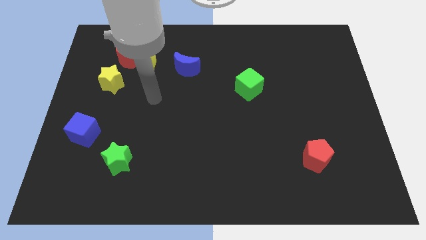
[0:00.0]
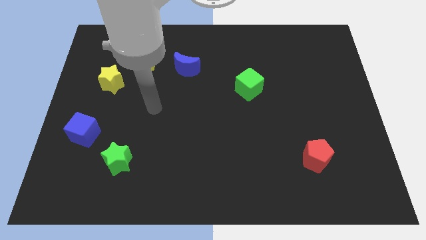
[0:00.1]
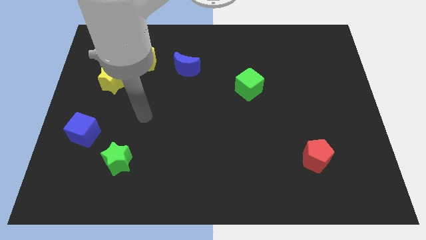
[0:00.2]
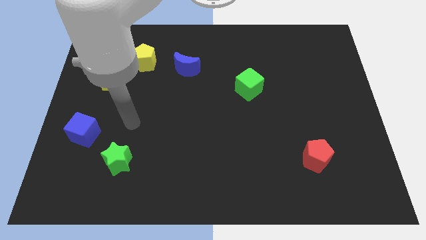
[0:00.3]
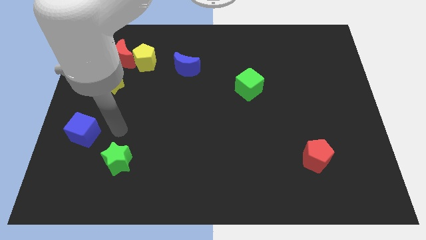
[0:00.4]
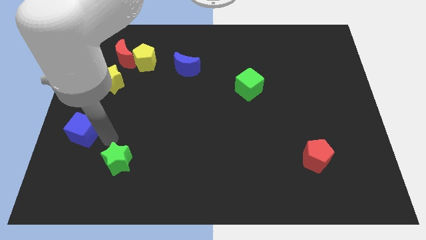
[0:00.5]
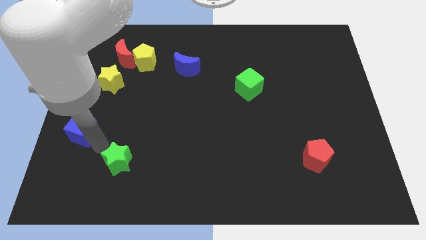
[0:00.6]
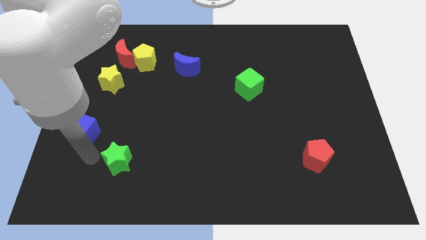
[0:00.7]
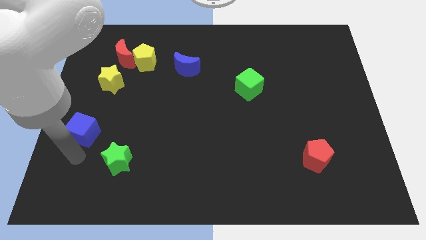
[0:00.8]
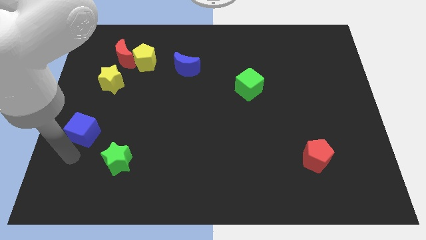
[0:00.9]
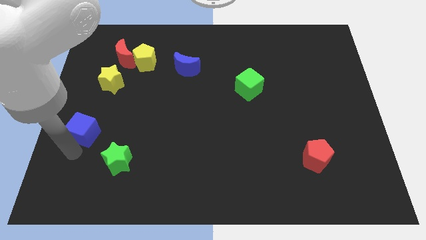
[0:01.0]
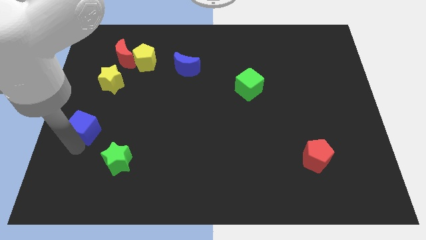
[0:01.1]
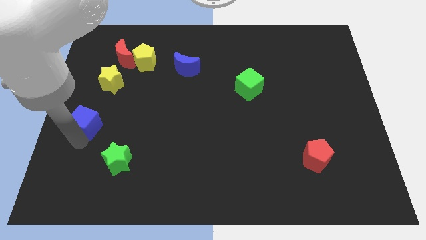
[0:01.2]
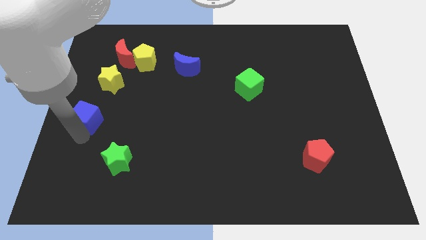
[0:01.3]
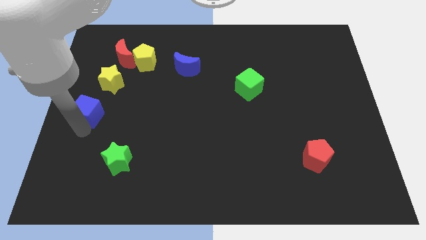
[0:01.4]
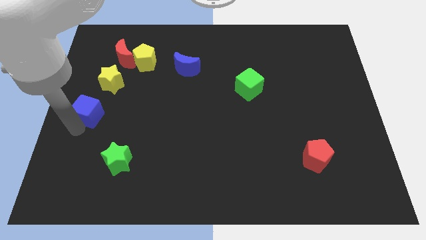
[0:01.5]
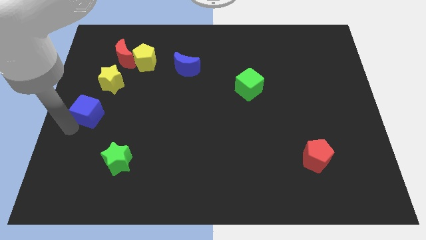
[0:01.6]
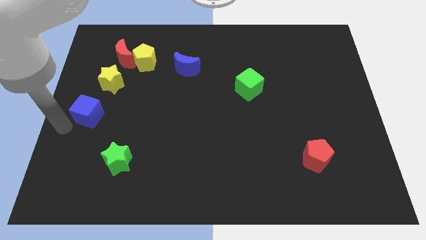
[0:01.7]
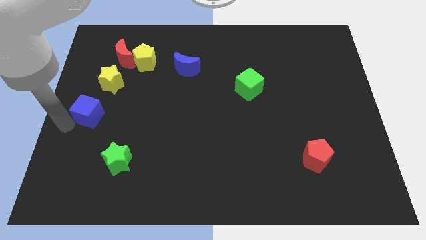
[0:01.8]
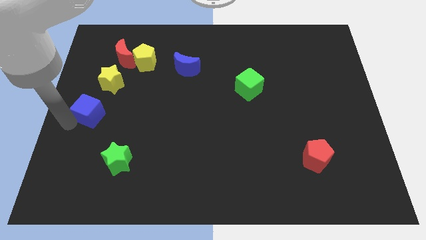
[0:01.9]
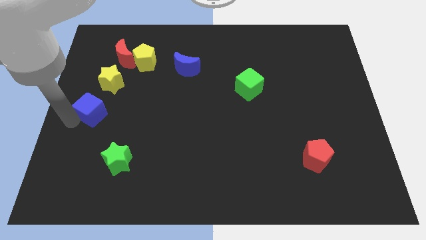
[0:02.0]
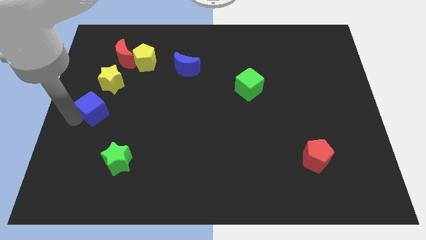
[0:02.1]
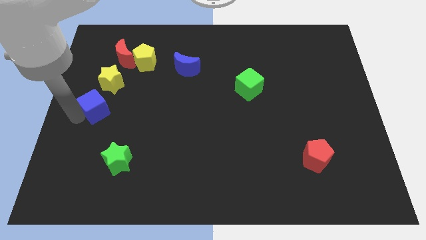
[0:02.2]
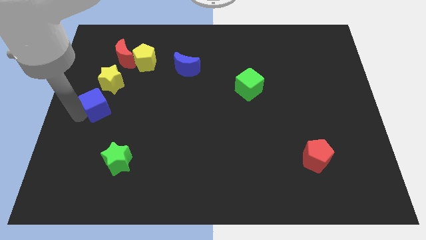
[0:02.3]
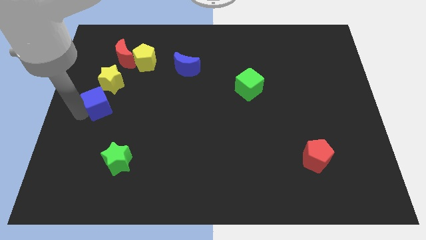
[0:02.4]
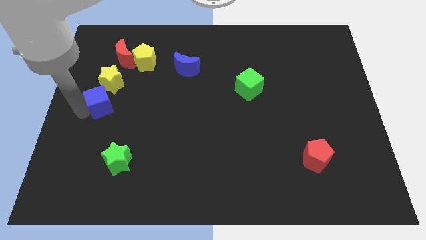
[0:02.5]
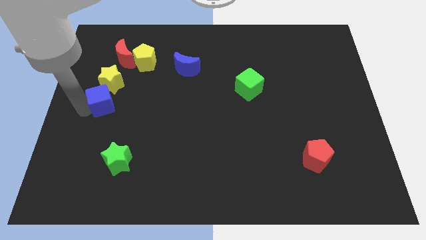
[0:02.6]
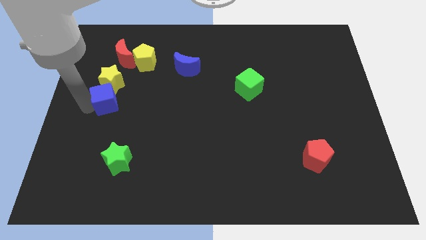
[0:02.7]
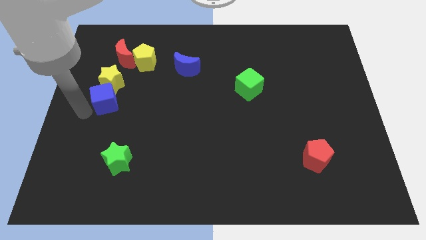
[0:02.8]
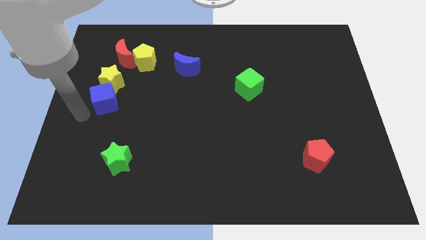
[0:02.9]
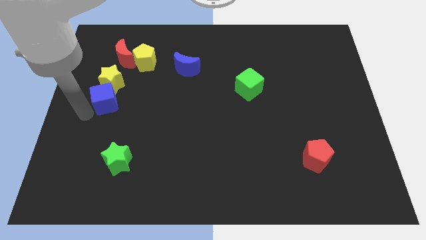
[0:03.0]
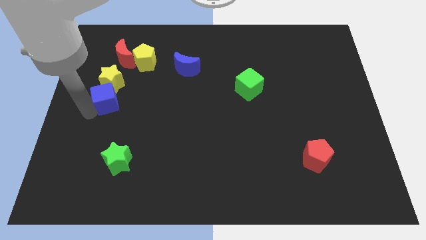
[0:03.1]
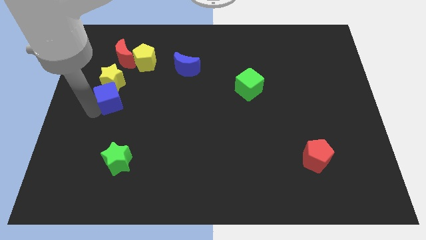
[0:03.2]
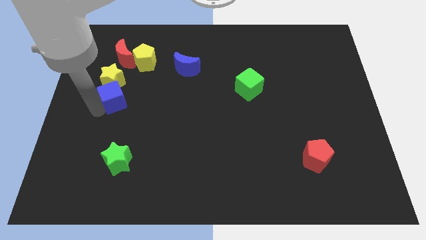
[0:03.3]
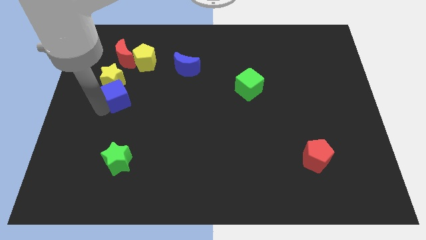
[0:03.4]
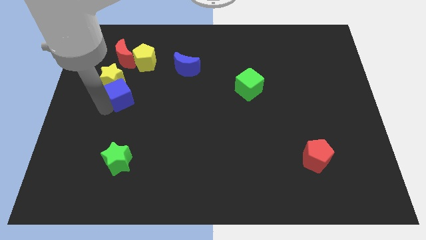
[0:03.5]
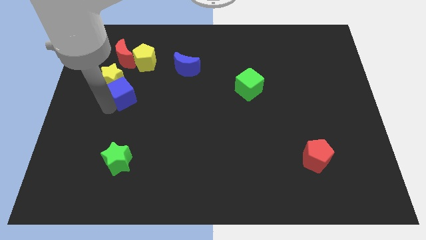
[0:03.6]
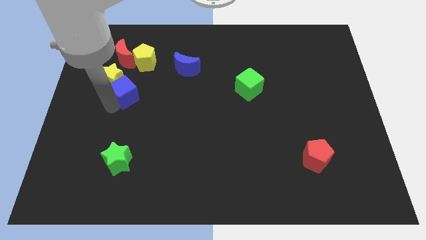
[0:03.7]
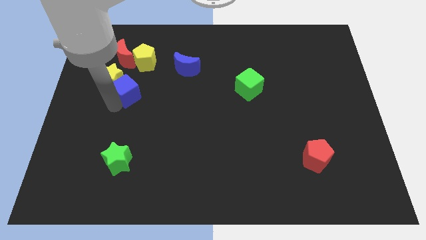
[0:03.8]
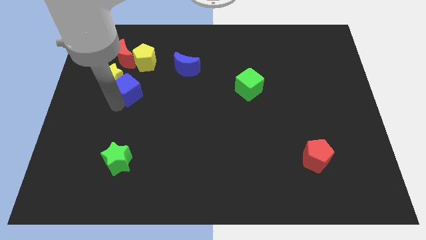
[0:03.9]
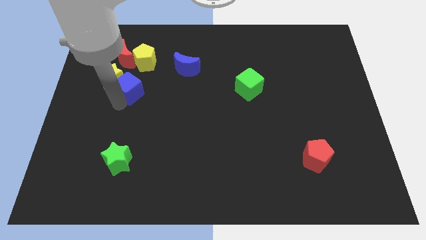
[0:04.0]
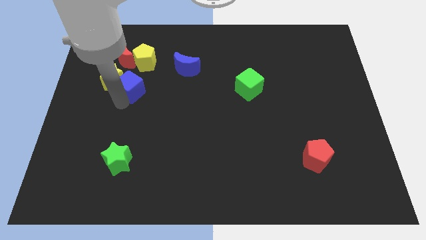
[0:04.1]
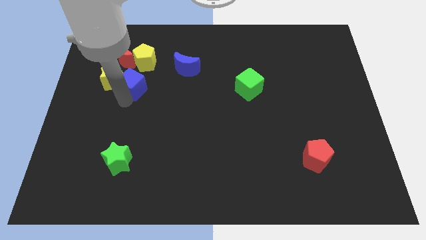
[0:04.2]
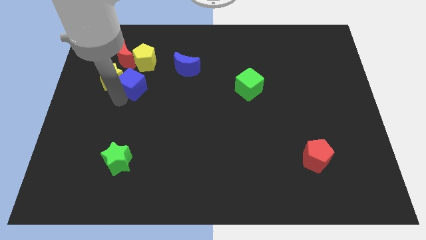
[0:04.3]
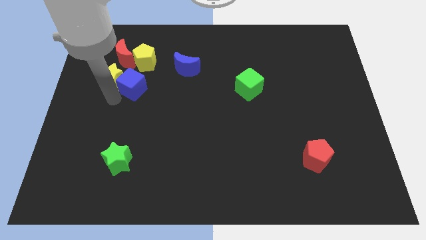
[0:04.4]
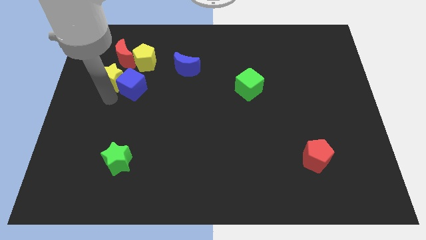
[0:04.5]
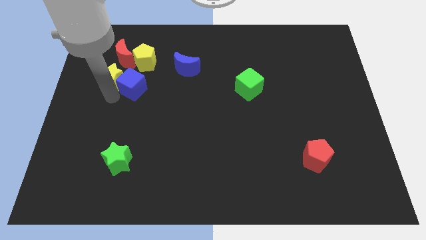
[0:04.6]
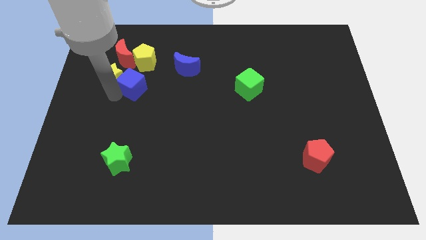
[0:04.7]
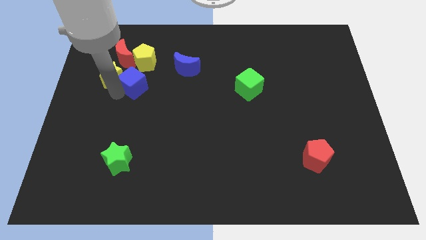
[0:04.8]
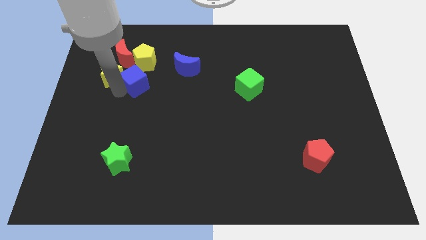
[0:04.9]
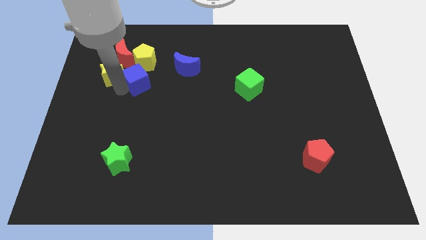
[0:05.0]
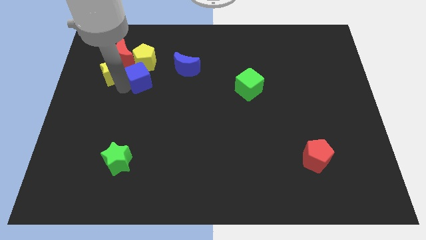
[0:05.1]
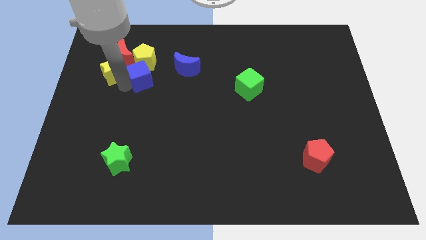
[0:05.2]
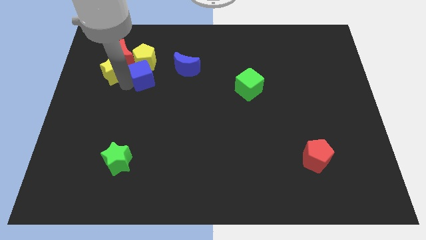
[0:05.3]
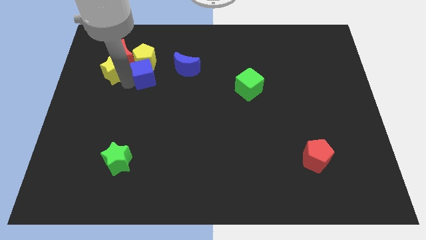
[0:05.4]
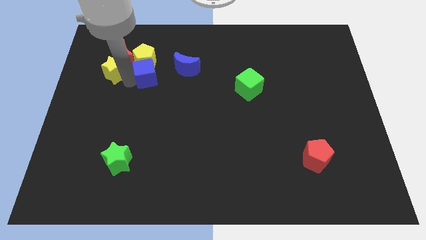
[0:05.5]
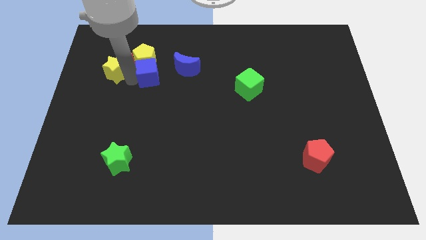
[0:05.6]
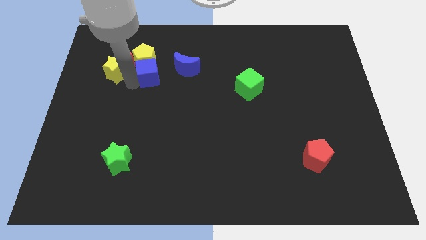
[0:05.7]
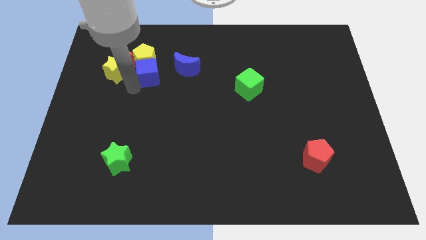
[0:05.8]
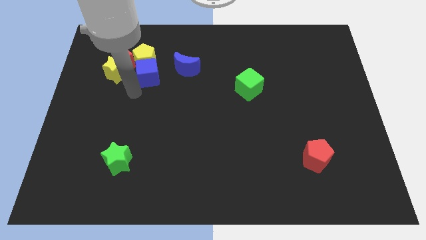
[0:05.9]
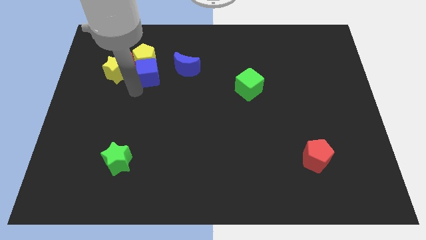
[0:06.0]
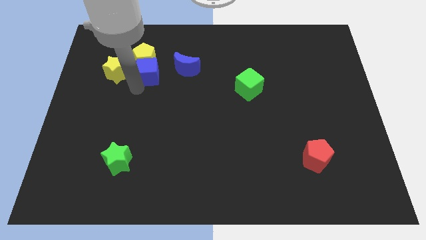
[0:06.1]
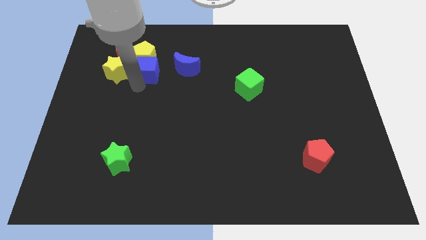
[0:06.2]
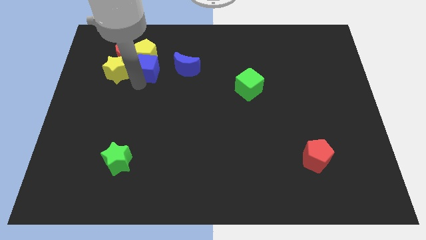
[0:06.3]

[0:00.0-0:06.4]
move the blue cube just right of the red moon

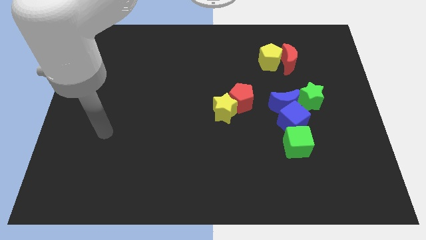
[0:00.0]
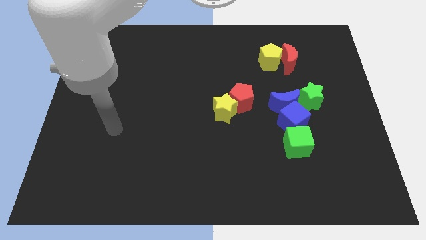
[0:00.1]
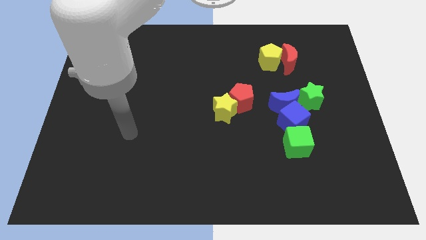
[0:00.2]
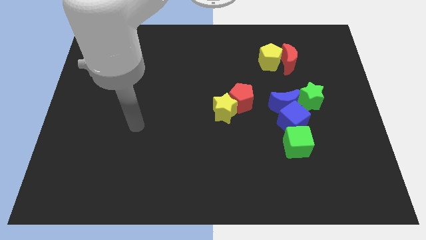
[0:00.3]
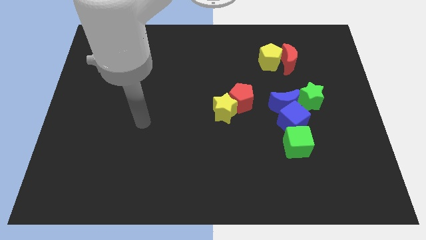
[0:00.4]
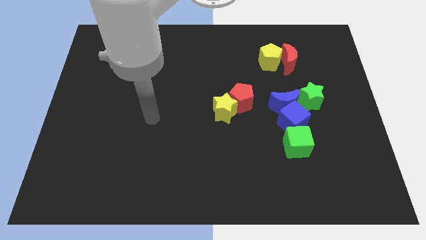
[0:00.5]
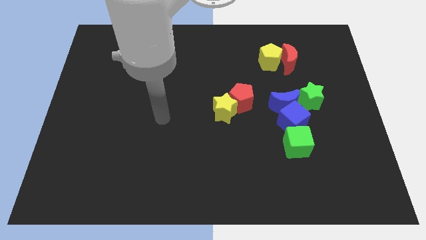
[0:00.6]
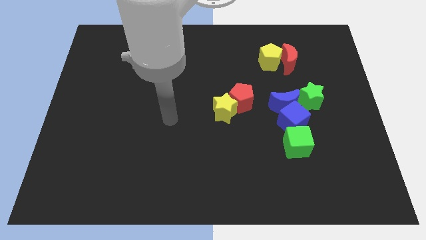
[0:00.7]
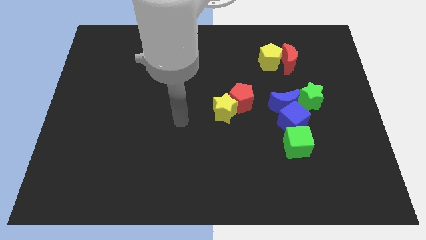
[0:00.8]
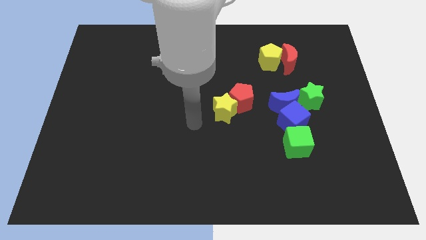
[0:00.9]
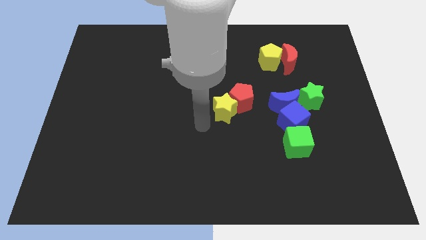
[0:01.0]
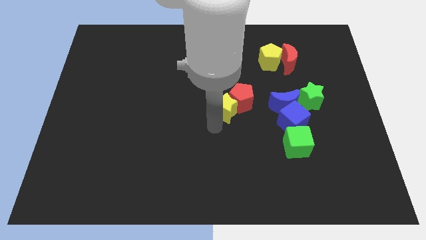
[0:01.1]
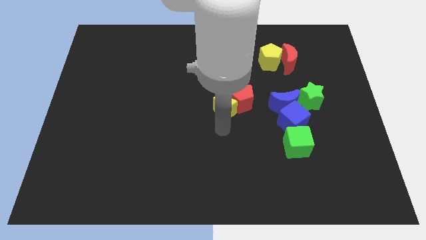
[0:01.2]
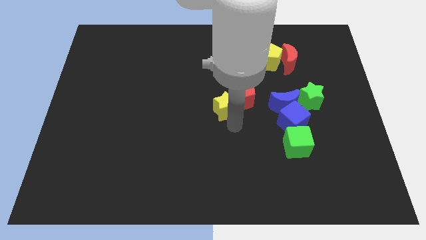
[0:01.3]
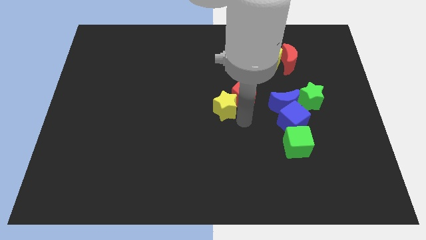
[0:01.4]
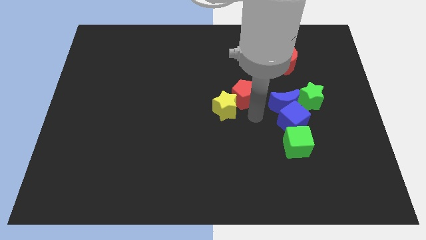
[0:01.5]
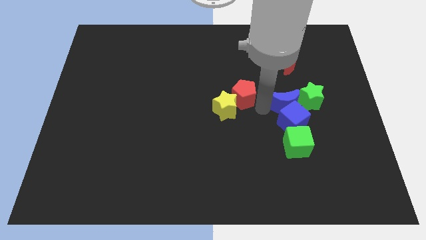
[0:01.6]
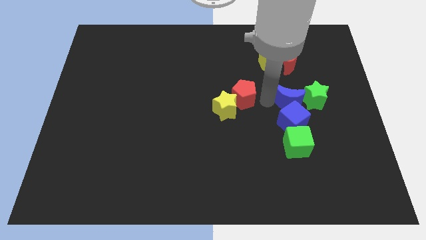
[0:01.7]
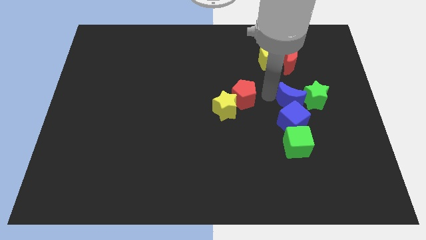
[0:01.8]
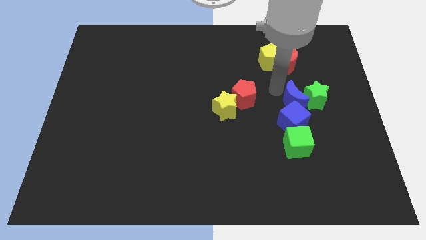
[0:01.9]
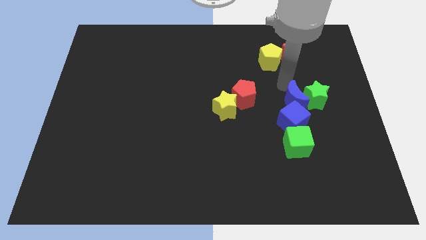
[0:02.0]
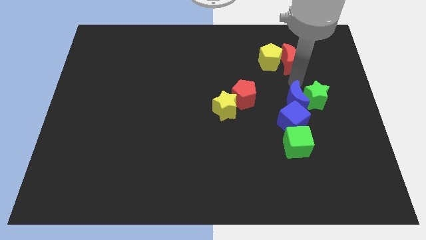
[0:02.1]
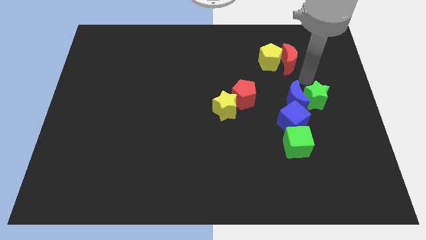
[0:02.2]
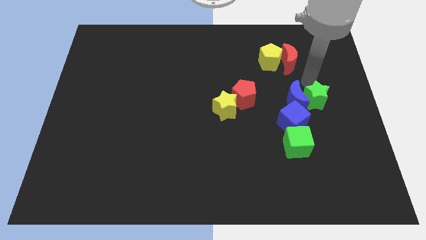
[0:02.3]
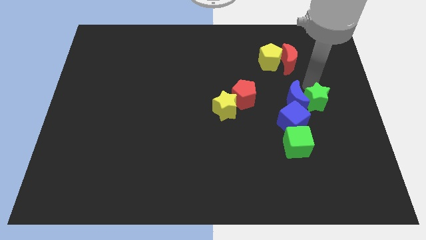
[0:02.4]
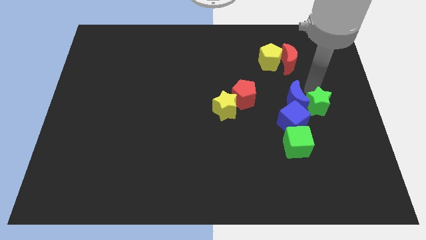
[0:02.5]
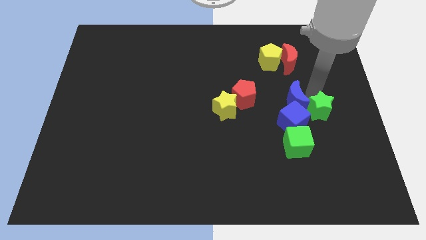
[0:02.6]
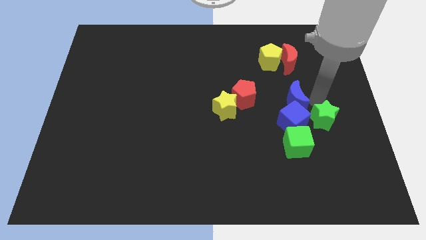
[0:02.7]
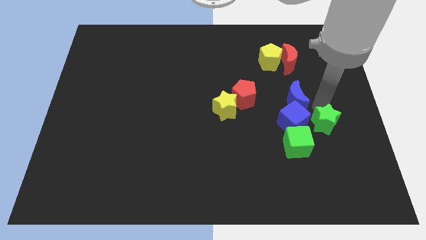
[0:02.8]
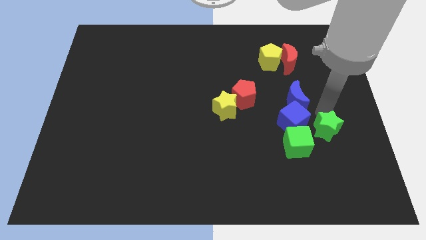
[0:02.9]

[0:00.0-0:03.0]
move the green star to the bottom right side of the blue cube
